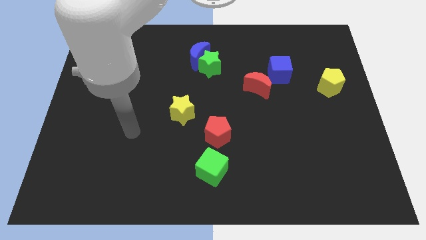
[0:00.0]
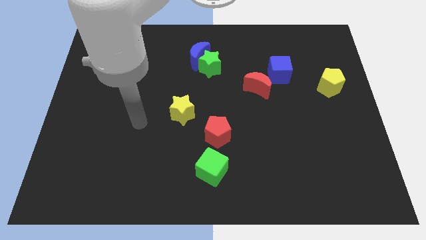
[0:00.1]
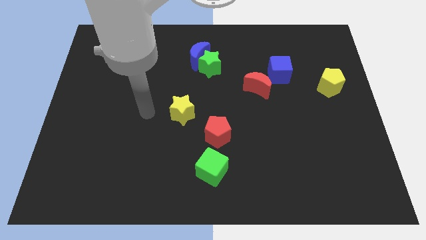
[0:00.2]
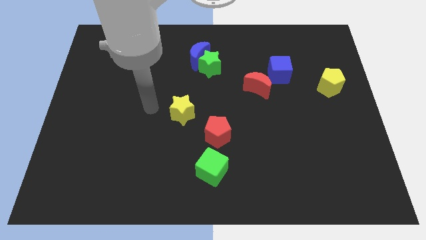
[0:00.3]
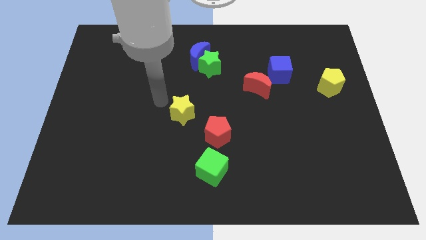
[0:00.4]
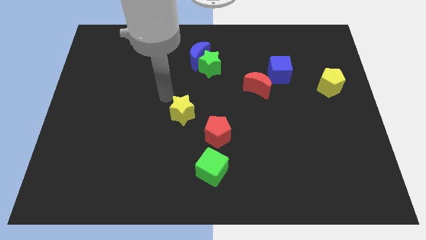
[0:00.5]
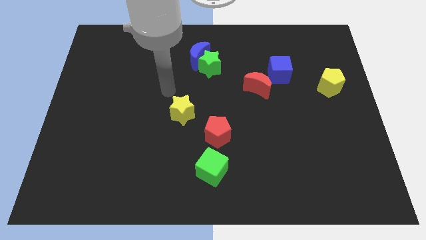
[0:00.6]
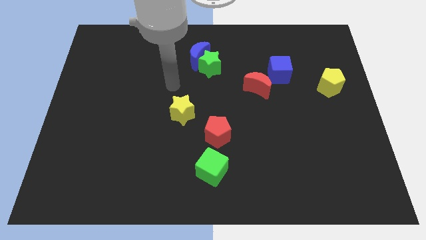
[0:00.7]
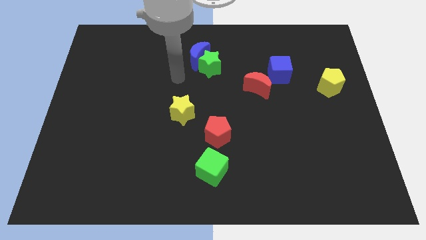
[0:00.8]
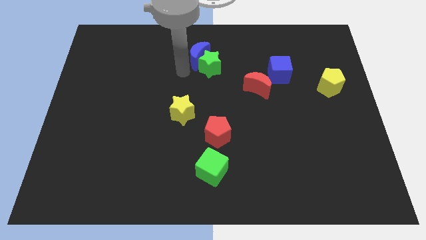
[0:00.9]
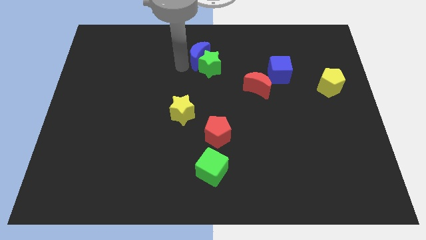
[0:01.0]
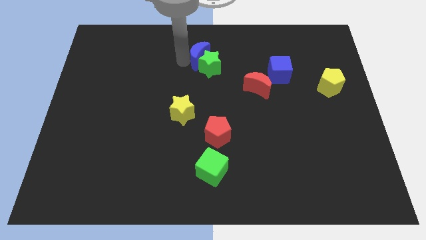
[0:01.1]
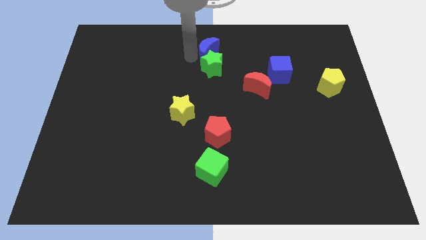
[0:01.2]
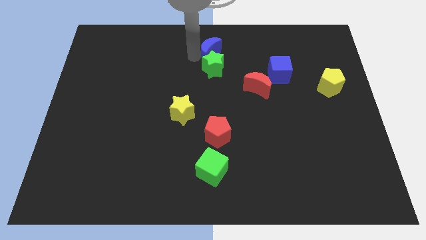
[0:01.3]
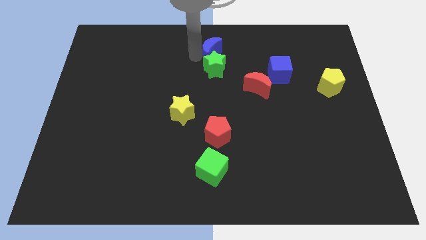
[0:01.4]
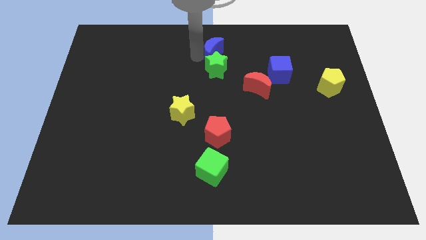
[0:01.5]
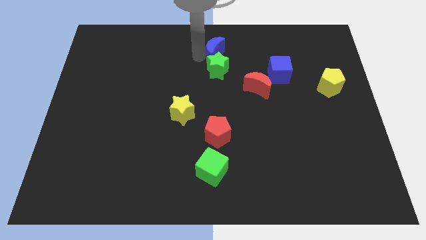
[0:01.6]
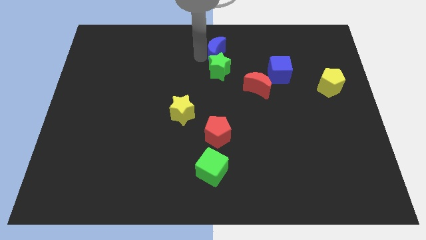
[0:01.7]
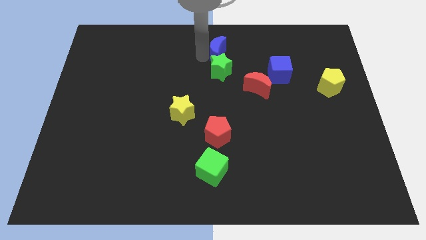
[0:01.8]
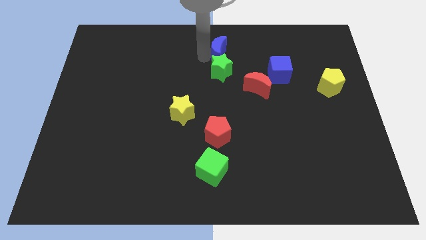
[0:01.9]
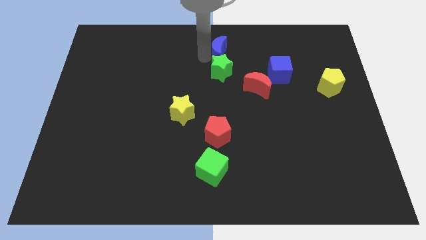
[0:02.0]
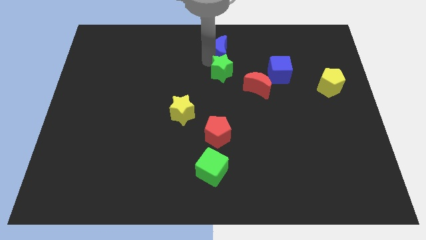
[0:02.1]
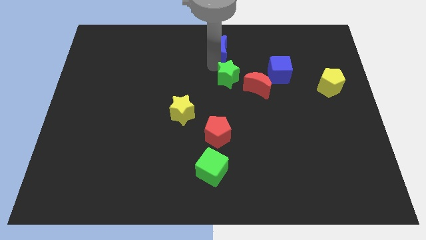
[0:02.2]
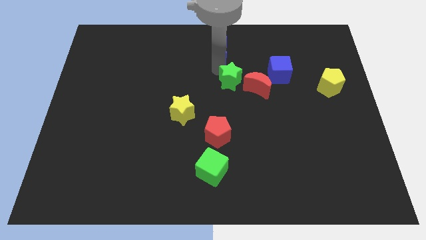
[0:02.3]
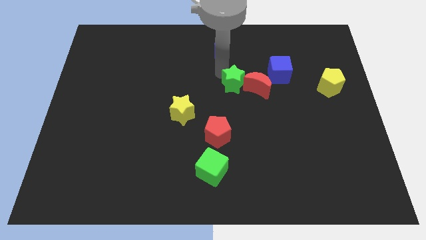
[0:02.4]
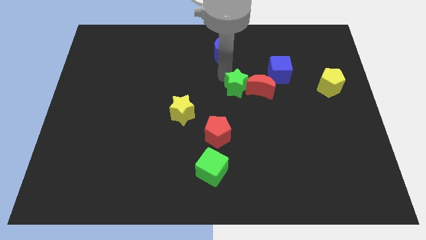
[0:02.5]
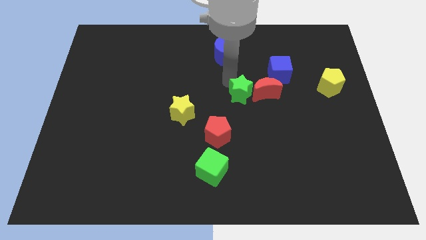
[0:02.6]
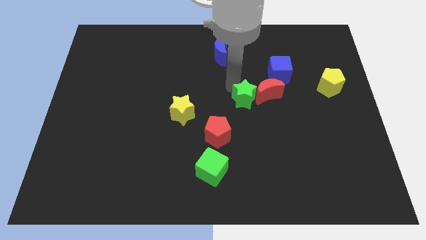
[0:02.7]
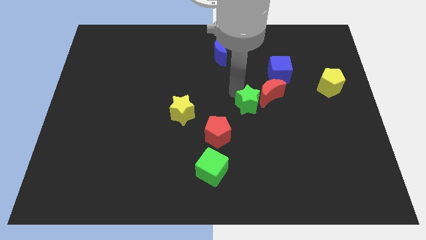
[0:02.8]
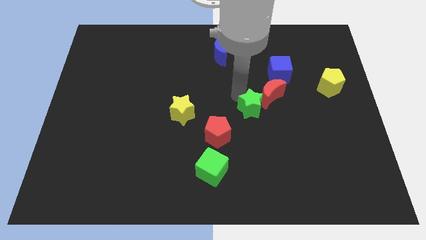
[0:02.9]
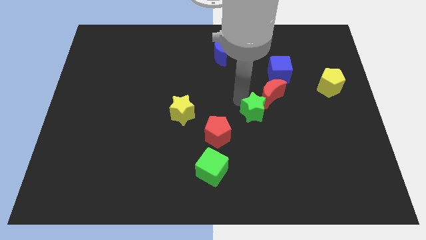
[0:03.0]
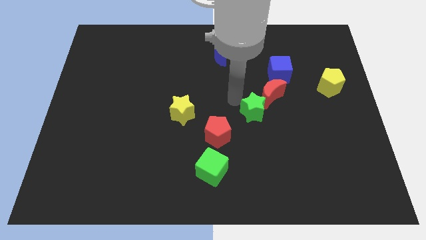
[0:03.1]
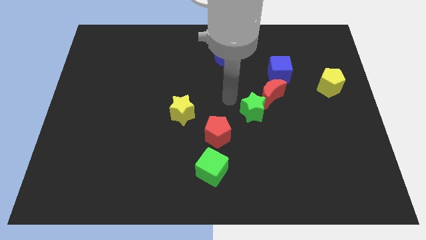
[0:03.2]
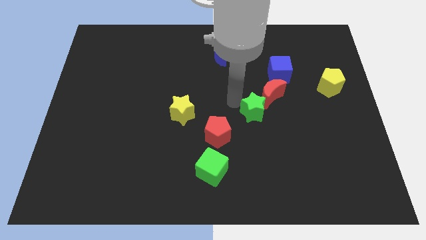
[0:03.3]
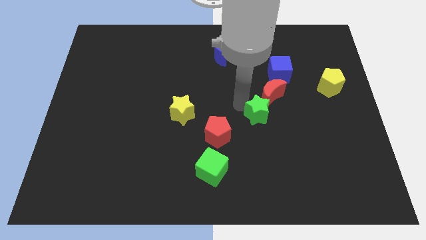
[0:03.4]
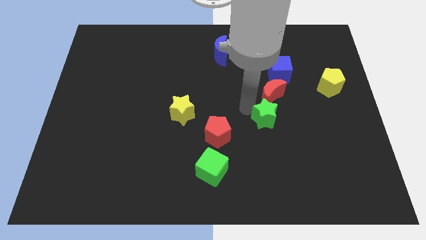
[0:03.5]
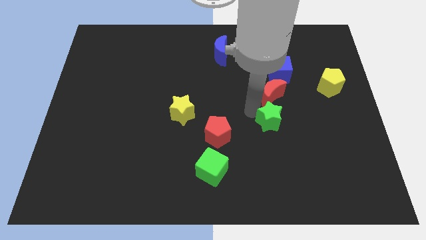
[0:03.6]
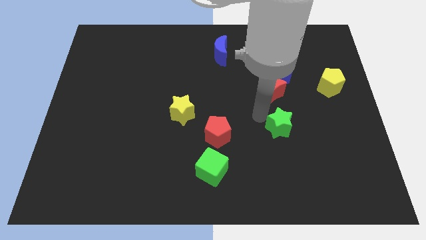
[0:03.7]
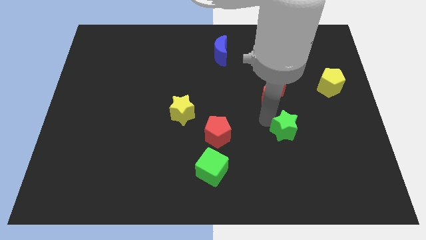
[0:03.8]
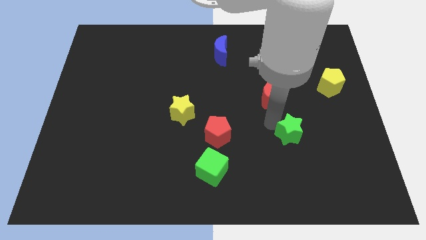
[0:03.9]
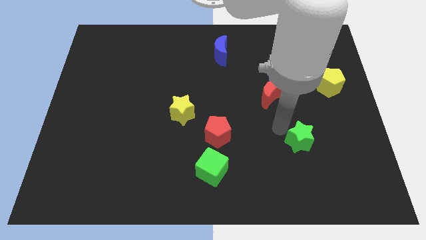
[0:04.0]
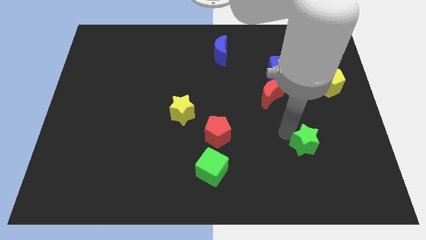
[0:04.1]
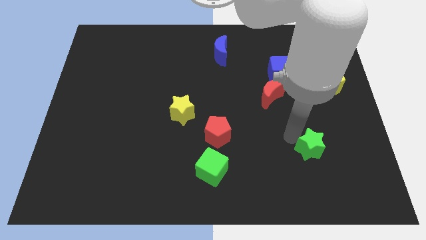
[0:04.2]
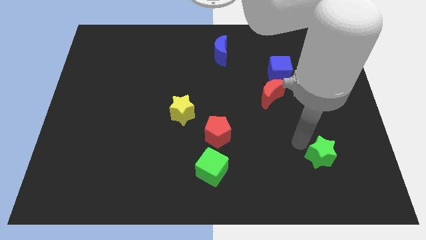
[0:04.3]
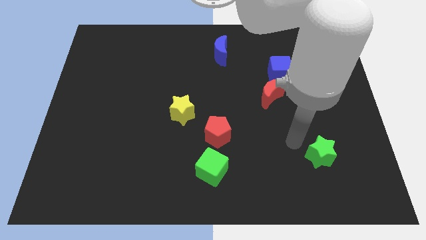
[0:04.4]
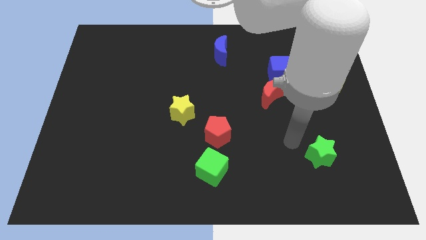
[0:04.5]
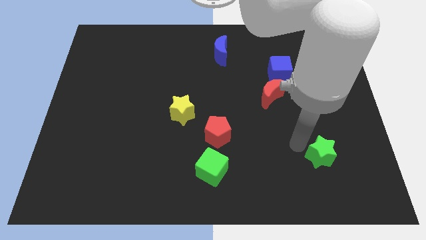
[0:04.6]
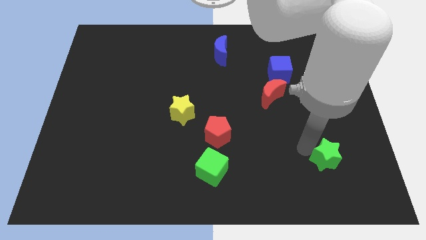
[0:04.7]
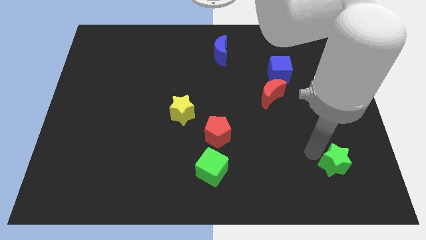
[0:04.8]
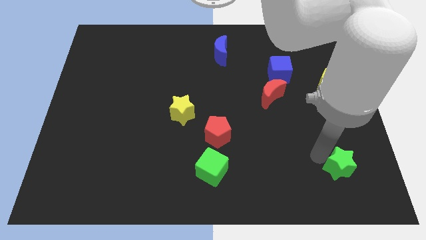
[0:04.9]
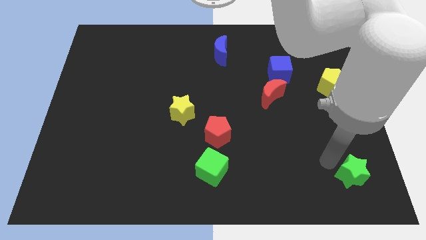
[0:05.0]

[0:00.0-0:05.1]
slide the green star to the bottom right
